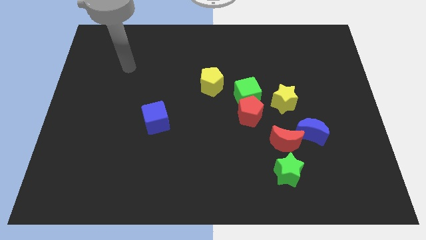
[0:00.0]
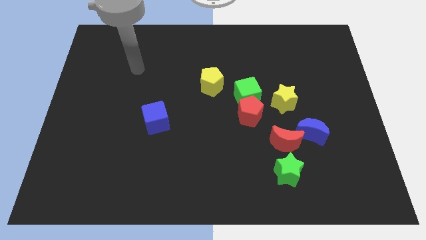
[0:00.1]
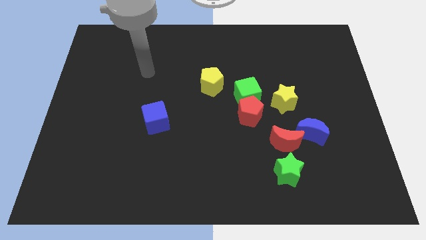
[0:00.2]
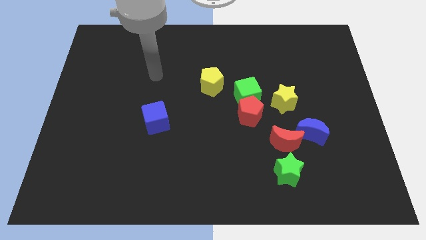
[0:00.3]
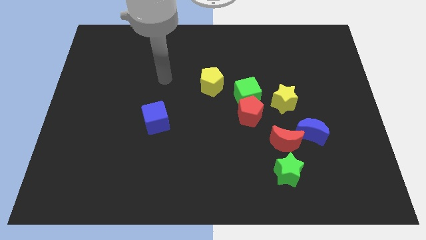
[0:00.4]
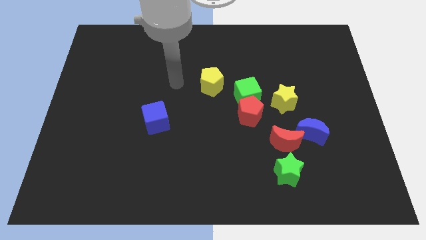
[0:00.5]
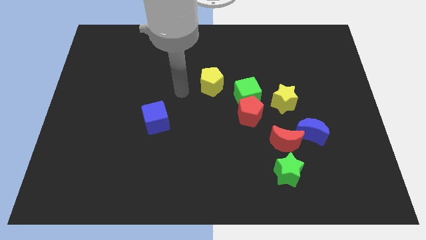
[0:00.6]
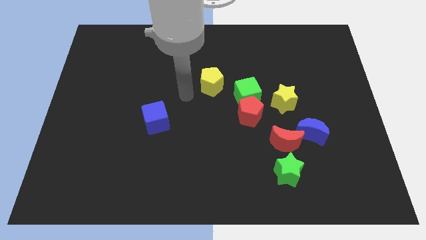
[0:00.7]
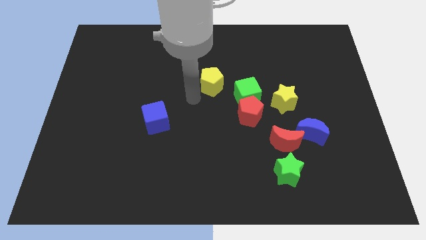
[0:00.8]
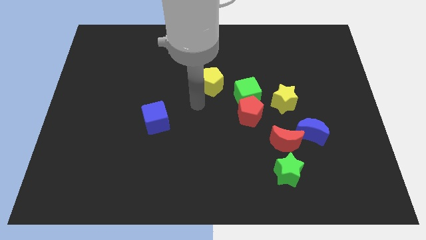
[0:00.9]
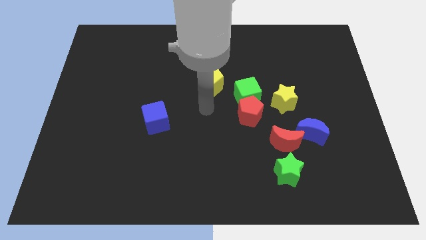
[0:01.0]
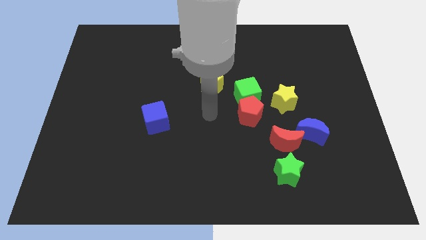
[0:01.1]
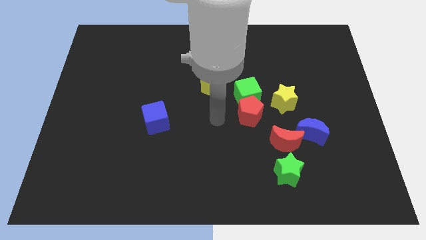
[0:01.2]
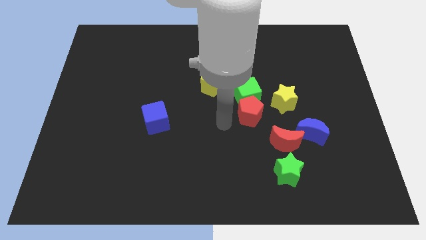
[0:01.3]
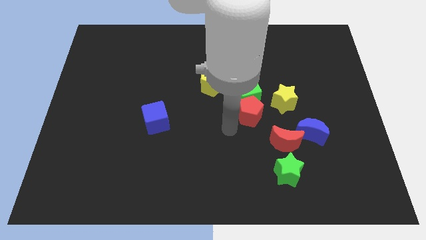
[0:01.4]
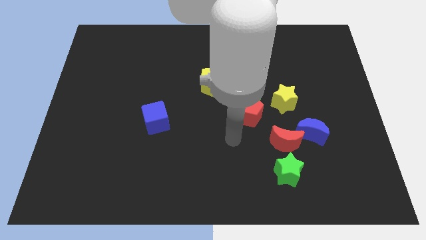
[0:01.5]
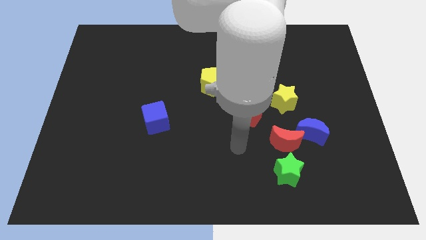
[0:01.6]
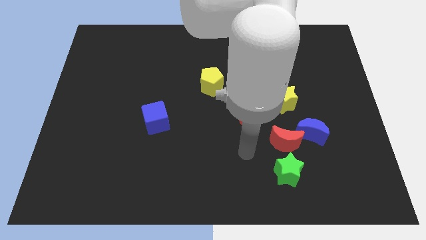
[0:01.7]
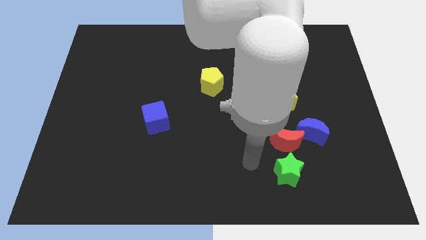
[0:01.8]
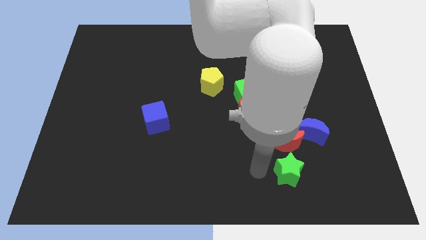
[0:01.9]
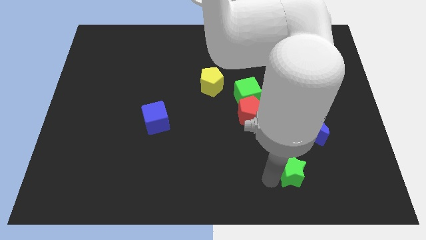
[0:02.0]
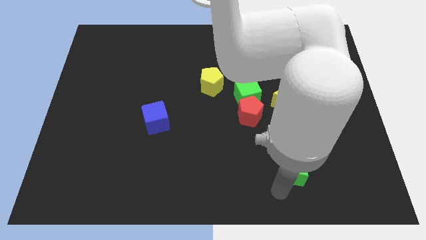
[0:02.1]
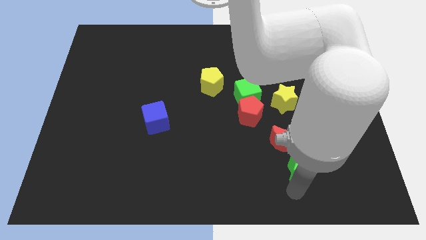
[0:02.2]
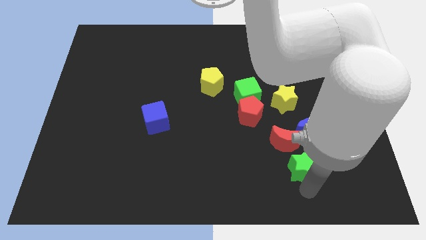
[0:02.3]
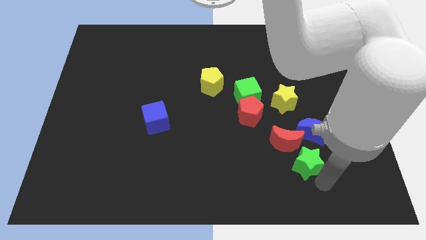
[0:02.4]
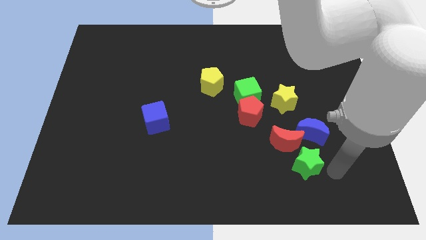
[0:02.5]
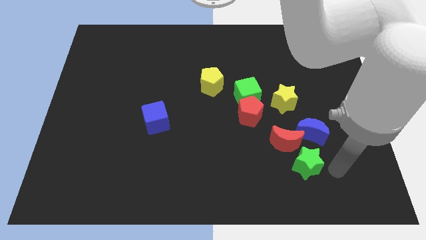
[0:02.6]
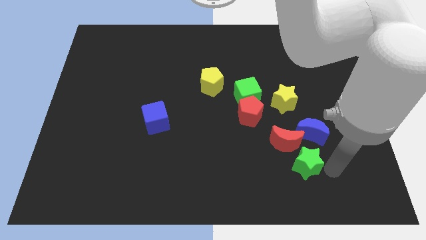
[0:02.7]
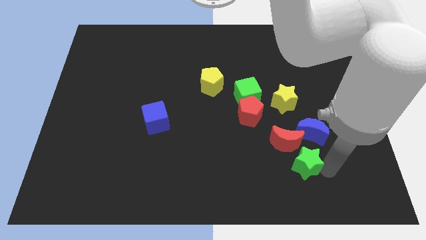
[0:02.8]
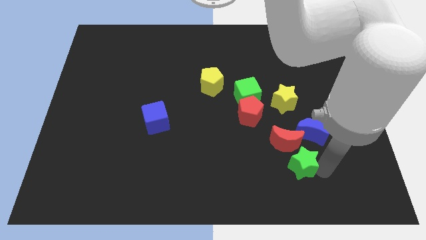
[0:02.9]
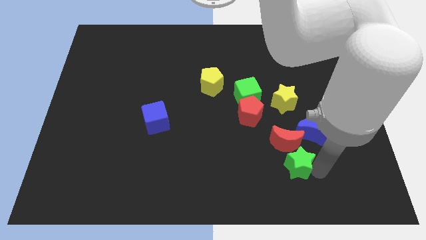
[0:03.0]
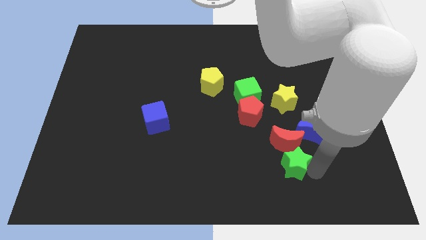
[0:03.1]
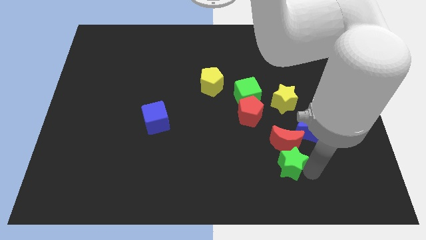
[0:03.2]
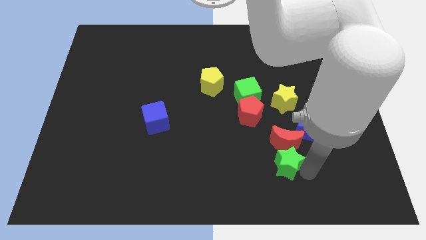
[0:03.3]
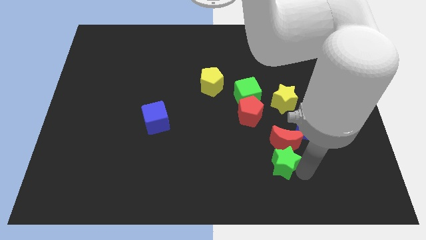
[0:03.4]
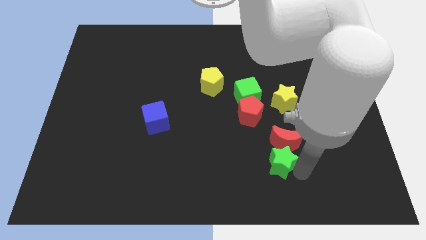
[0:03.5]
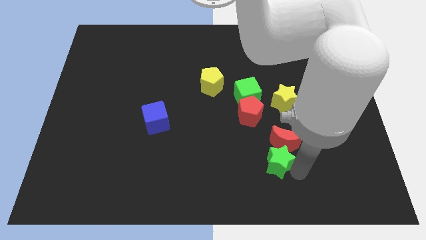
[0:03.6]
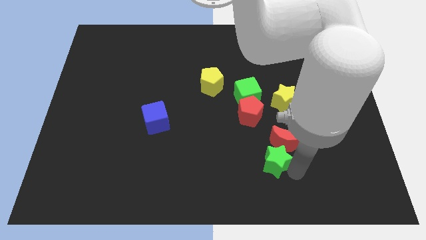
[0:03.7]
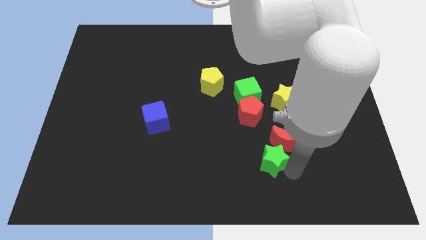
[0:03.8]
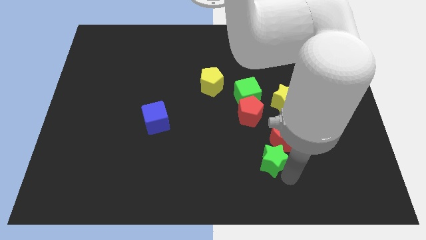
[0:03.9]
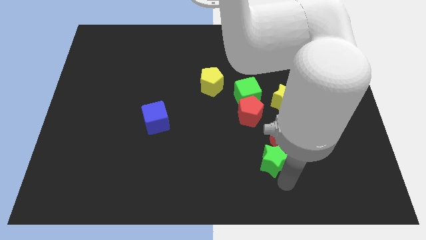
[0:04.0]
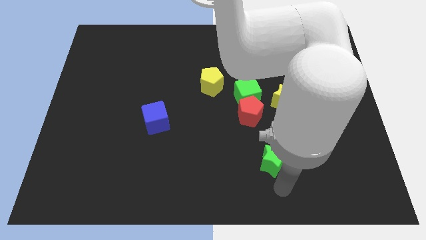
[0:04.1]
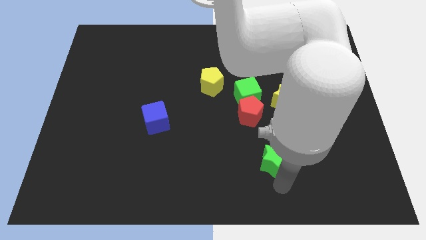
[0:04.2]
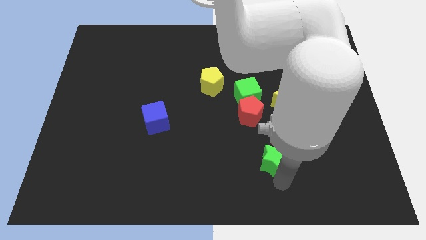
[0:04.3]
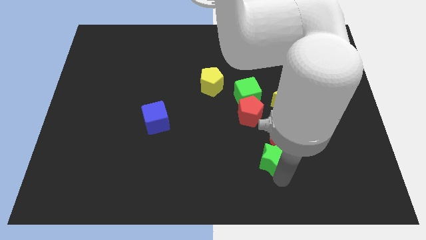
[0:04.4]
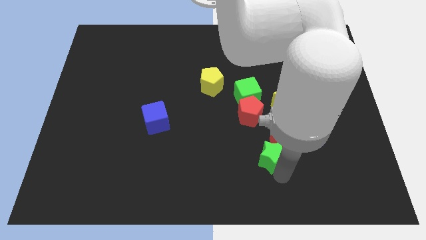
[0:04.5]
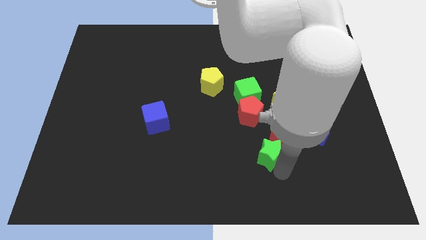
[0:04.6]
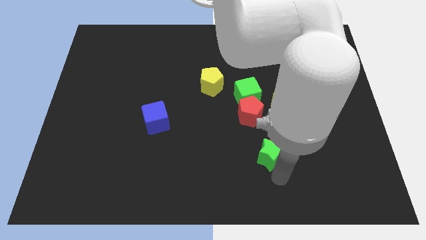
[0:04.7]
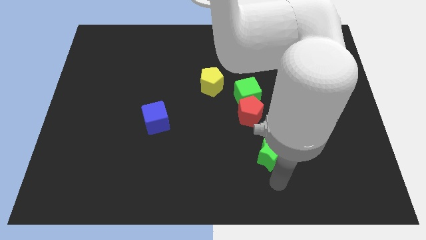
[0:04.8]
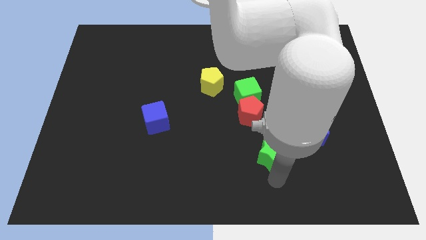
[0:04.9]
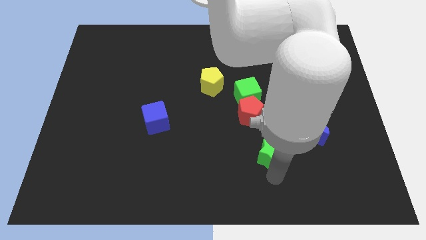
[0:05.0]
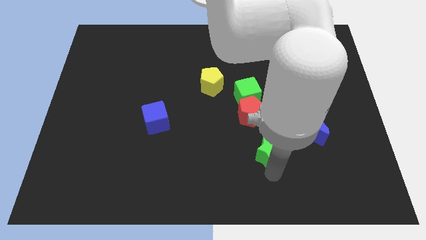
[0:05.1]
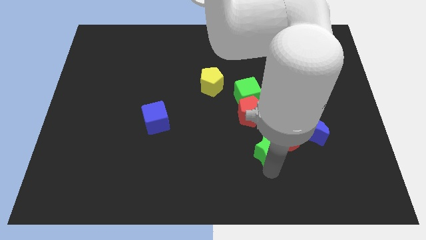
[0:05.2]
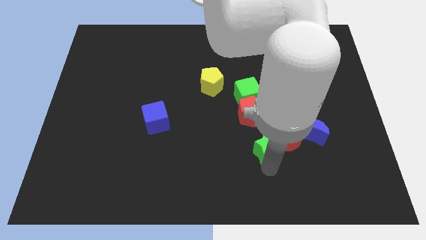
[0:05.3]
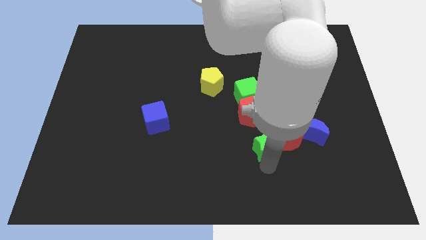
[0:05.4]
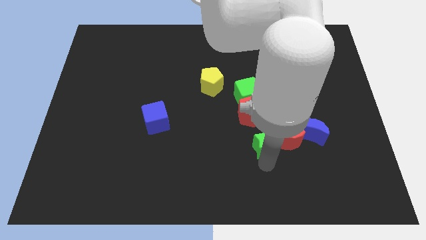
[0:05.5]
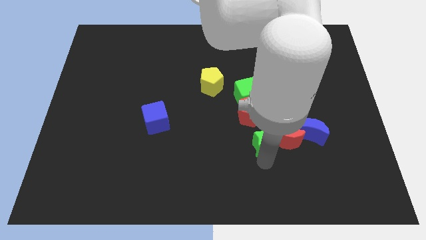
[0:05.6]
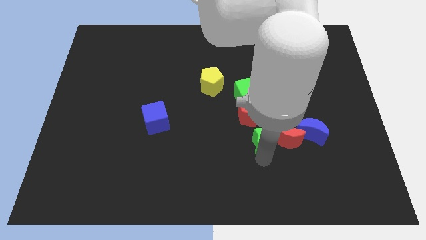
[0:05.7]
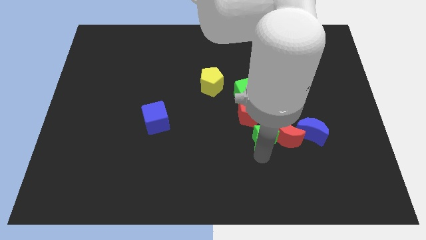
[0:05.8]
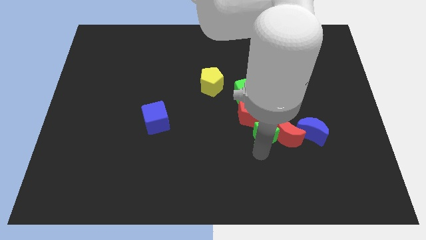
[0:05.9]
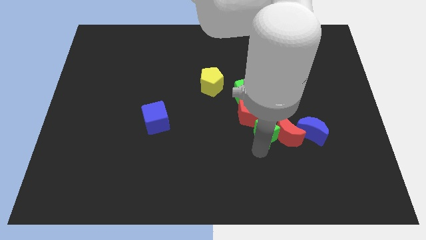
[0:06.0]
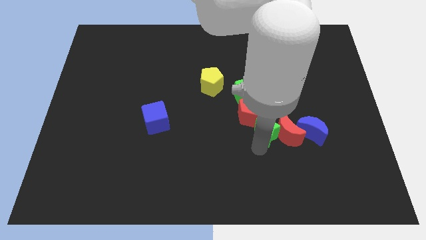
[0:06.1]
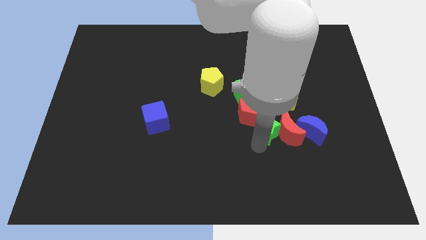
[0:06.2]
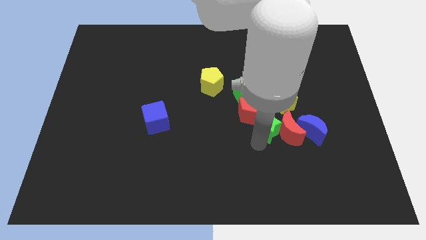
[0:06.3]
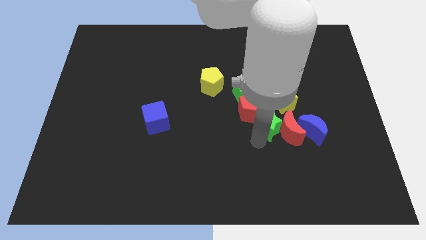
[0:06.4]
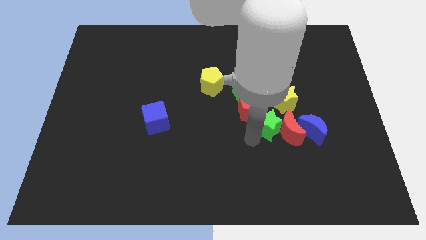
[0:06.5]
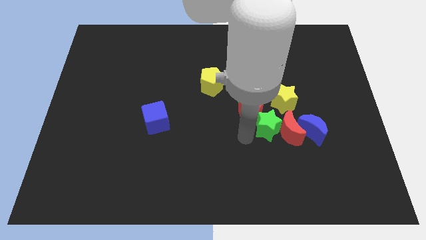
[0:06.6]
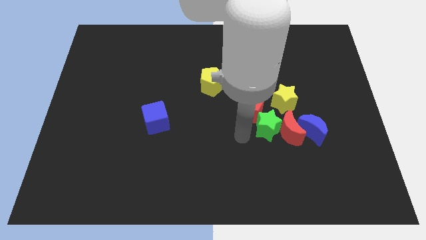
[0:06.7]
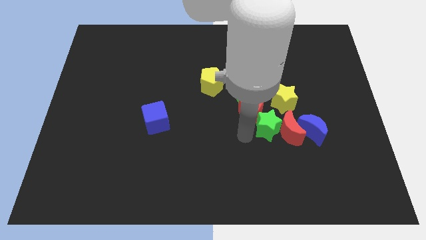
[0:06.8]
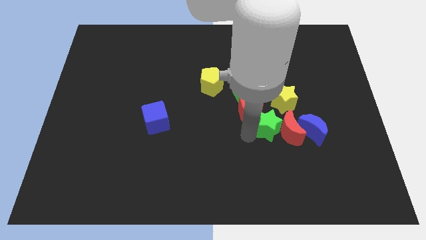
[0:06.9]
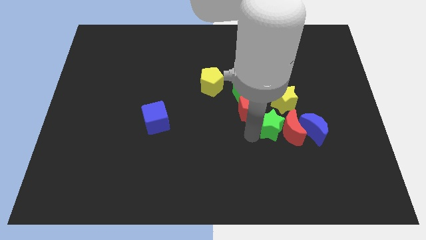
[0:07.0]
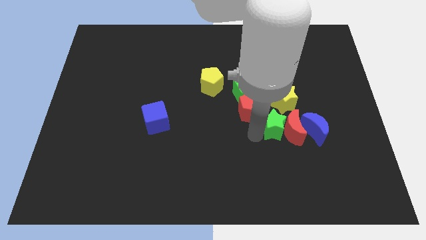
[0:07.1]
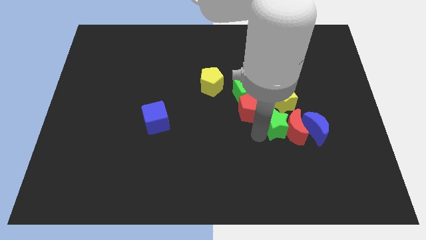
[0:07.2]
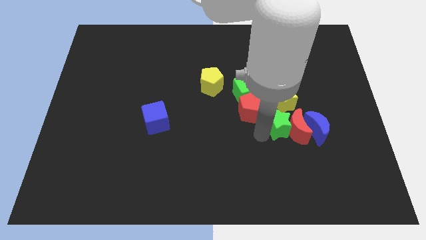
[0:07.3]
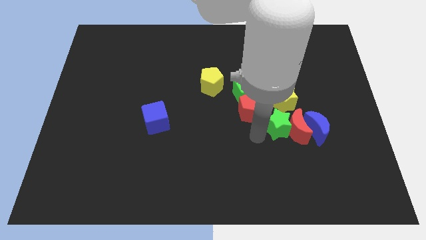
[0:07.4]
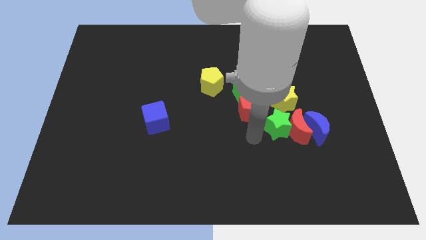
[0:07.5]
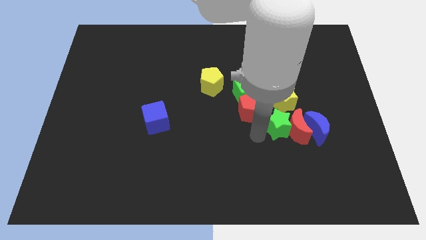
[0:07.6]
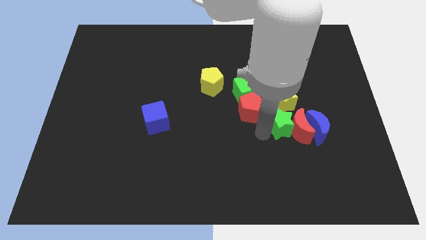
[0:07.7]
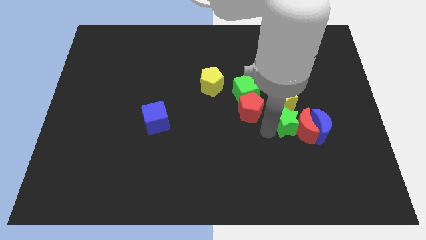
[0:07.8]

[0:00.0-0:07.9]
push the green star to the bottom right side of the yellow star
